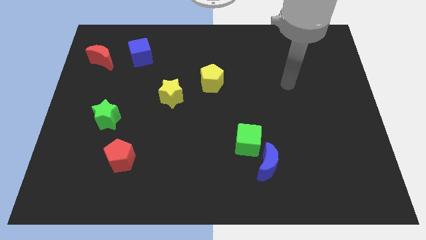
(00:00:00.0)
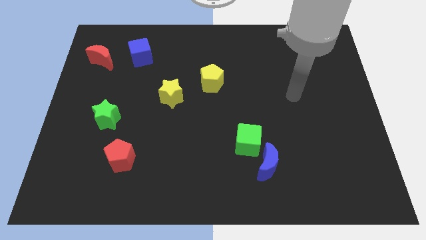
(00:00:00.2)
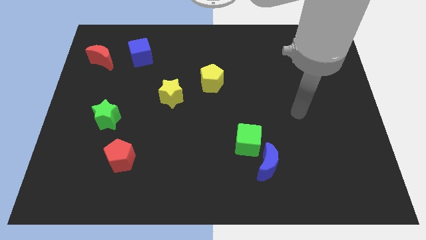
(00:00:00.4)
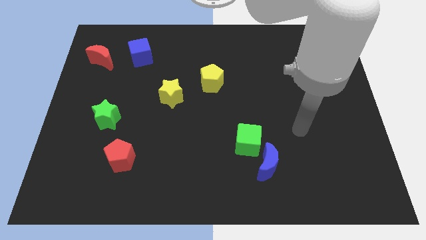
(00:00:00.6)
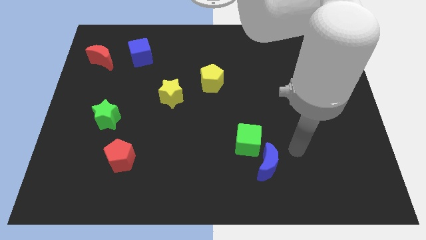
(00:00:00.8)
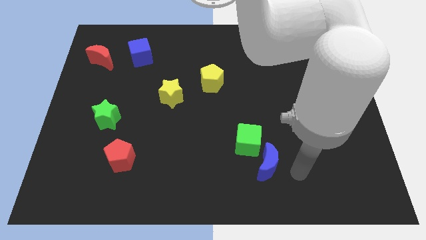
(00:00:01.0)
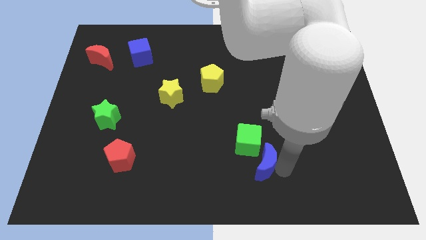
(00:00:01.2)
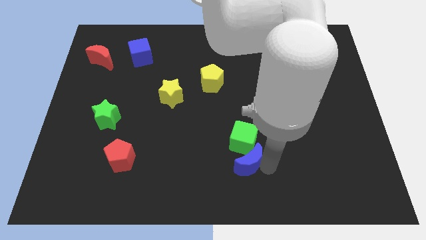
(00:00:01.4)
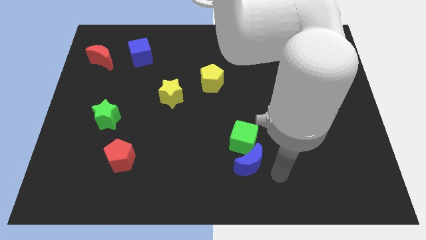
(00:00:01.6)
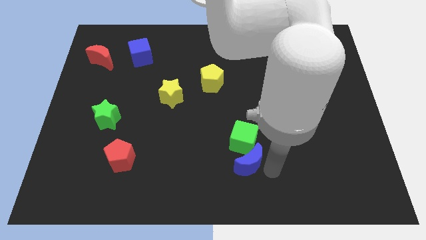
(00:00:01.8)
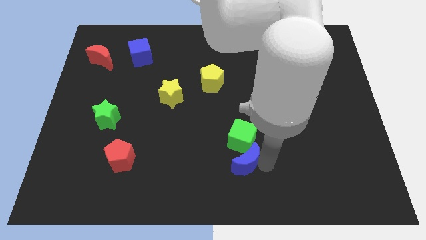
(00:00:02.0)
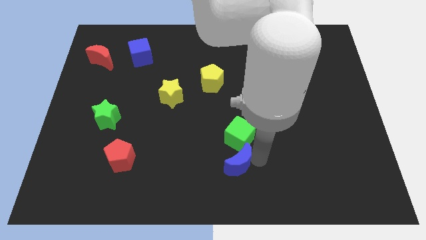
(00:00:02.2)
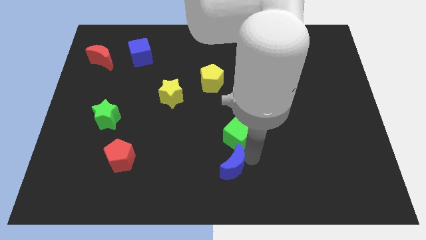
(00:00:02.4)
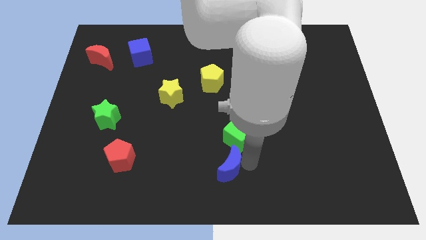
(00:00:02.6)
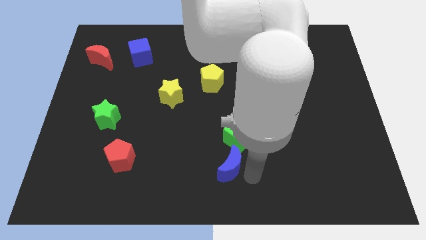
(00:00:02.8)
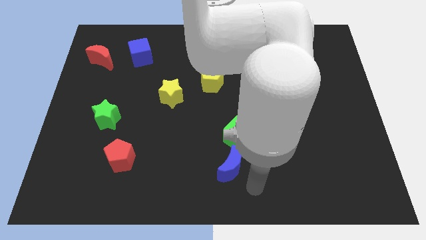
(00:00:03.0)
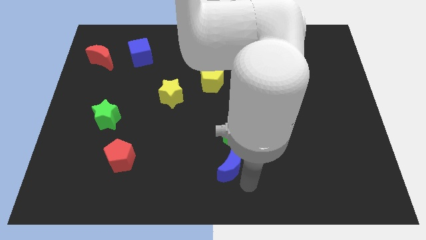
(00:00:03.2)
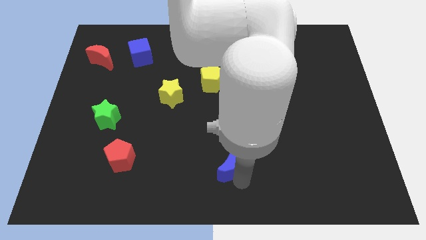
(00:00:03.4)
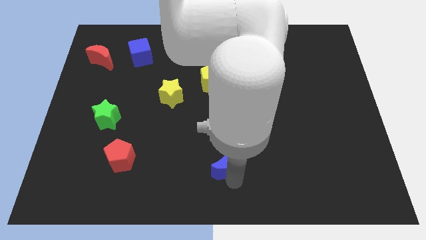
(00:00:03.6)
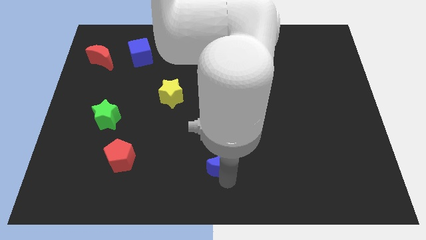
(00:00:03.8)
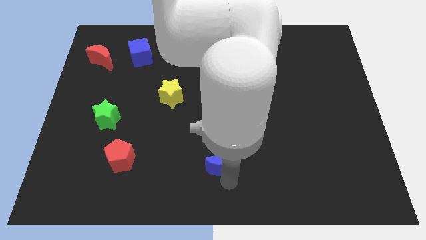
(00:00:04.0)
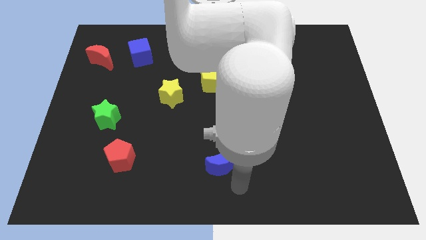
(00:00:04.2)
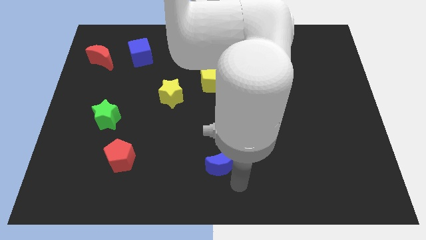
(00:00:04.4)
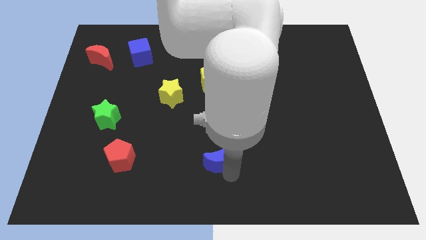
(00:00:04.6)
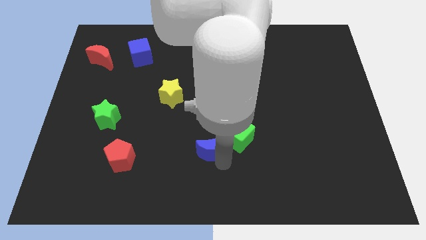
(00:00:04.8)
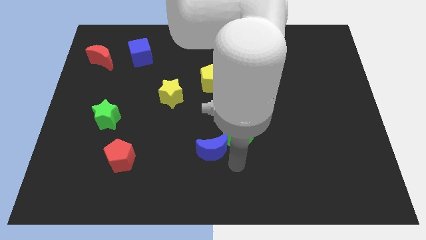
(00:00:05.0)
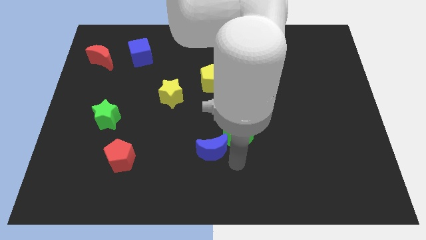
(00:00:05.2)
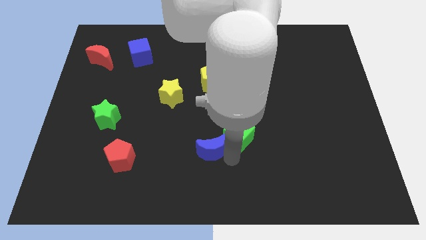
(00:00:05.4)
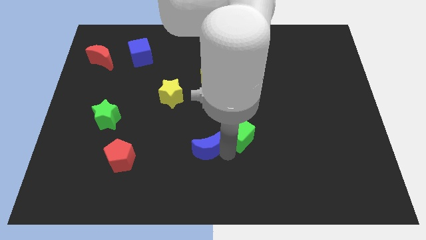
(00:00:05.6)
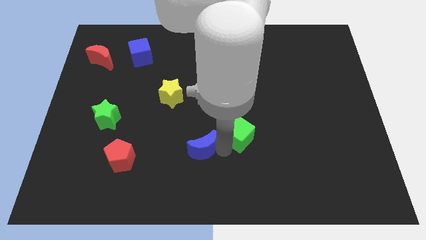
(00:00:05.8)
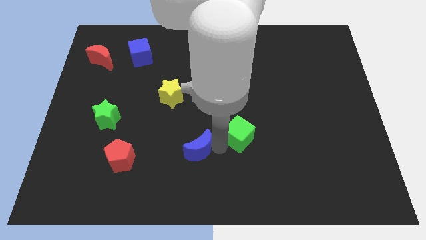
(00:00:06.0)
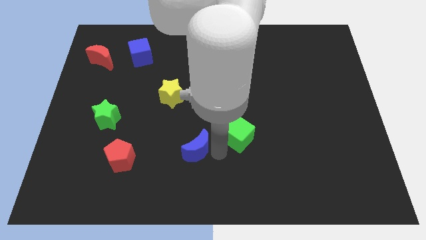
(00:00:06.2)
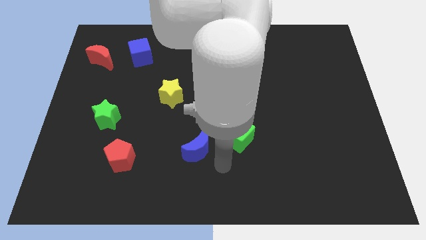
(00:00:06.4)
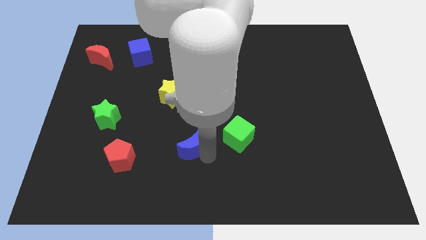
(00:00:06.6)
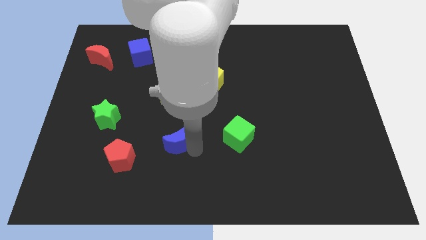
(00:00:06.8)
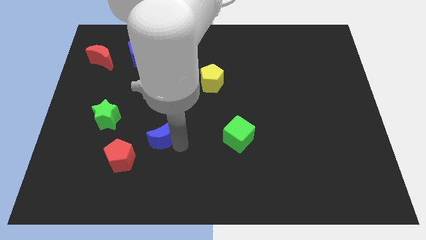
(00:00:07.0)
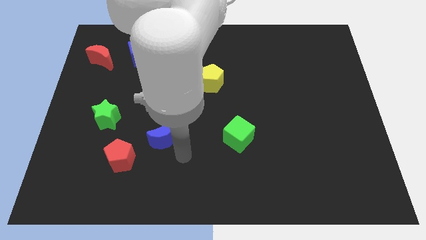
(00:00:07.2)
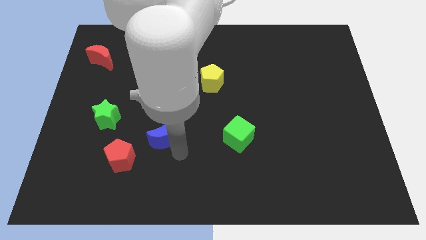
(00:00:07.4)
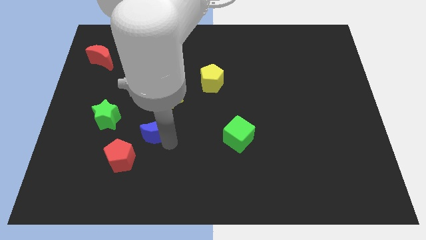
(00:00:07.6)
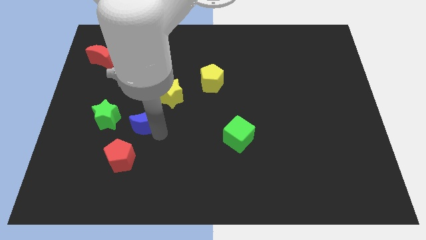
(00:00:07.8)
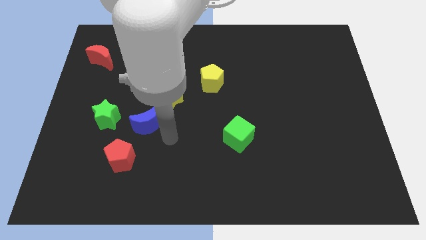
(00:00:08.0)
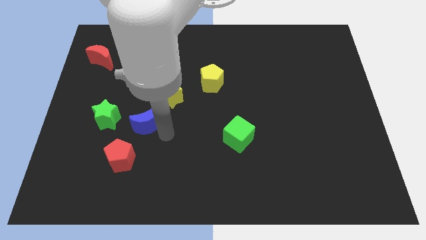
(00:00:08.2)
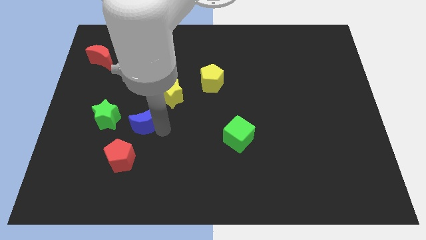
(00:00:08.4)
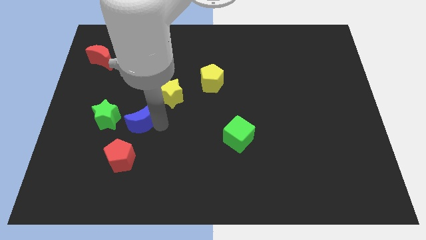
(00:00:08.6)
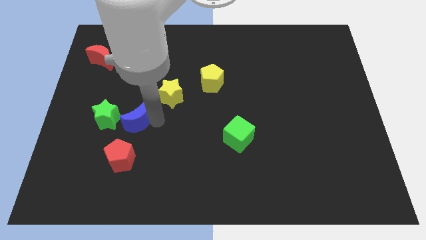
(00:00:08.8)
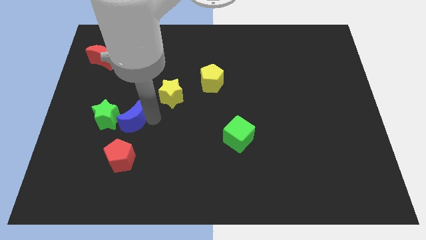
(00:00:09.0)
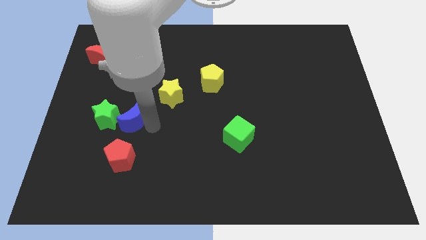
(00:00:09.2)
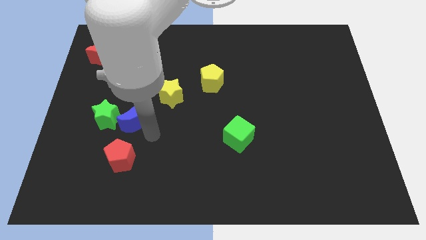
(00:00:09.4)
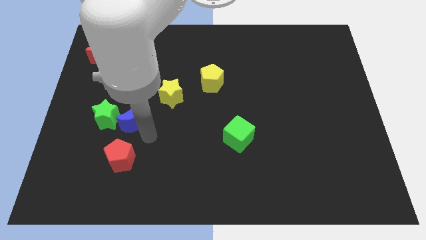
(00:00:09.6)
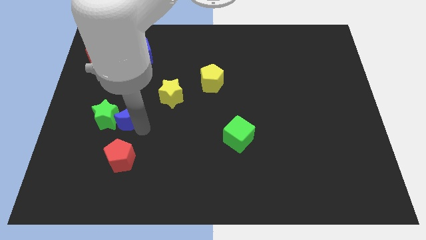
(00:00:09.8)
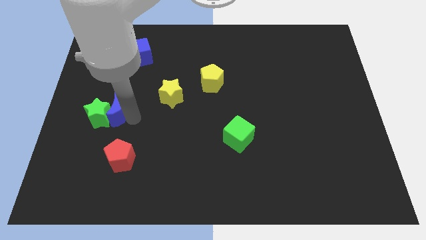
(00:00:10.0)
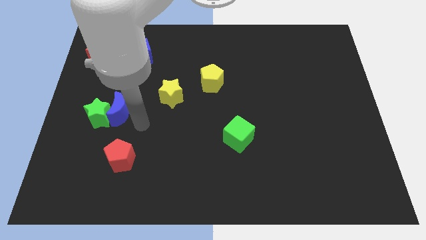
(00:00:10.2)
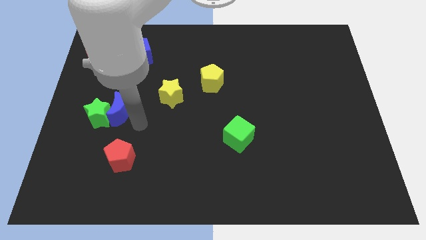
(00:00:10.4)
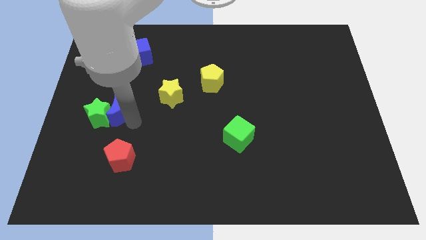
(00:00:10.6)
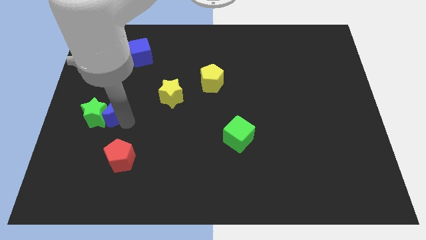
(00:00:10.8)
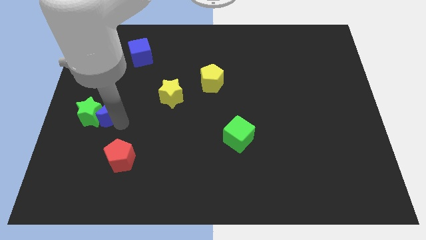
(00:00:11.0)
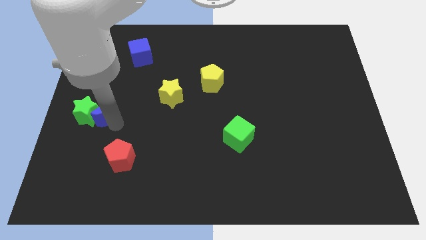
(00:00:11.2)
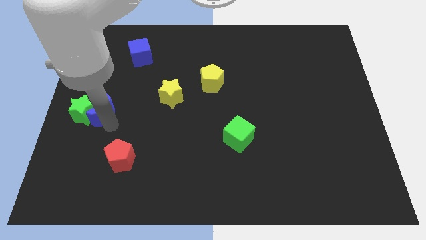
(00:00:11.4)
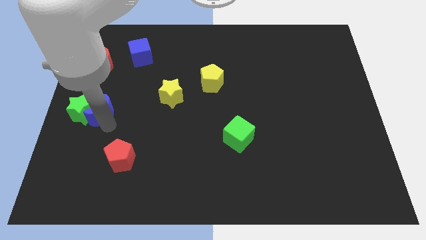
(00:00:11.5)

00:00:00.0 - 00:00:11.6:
slide the blue moon to the left side

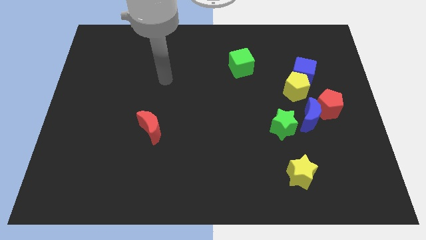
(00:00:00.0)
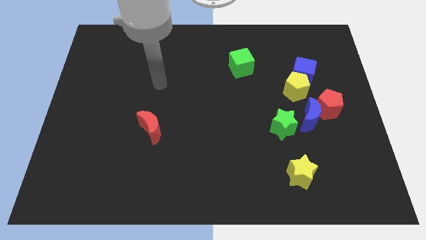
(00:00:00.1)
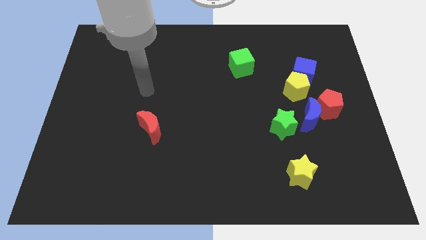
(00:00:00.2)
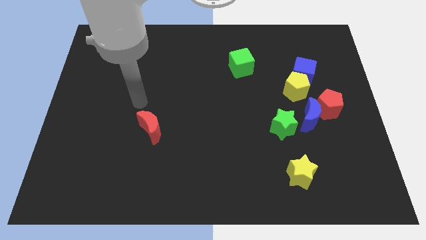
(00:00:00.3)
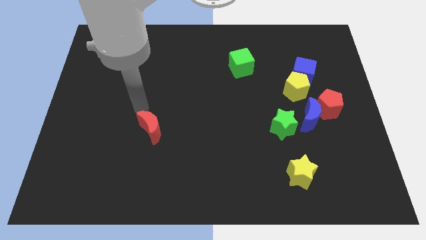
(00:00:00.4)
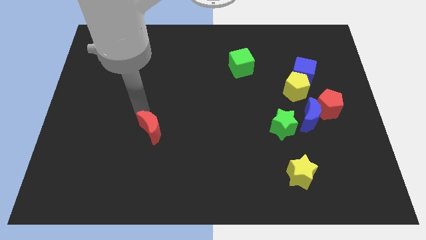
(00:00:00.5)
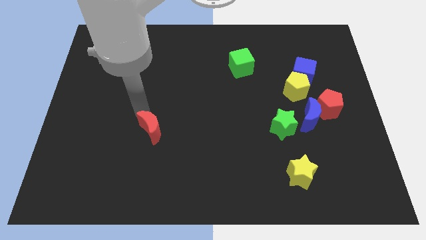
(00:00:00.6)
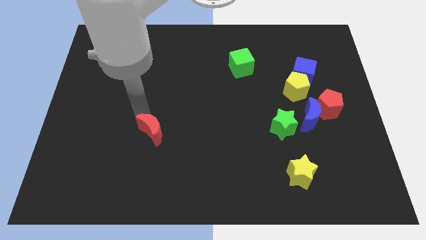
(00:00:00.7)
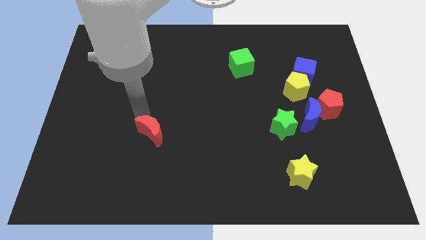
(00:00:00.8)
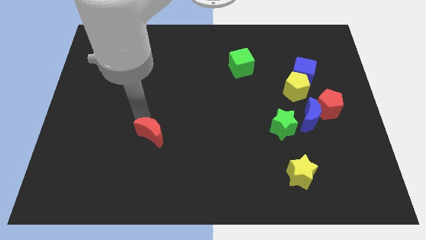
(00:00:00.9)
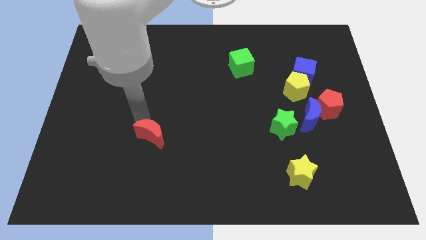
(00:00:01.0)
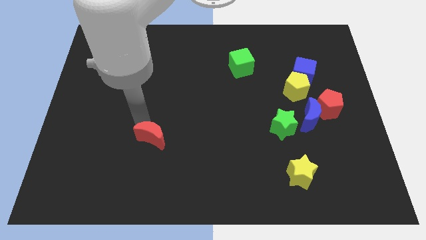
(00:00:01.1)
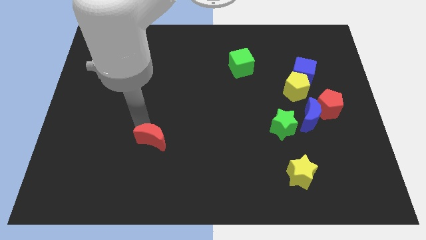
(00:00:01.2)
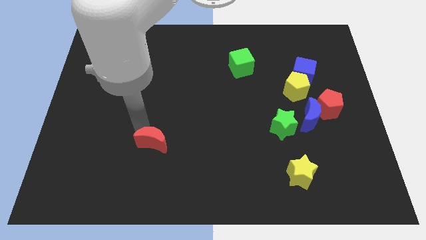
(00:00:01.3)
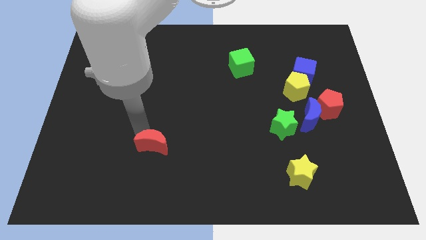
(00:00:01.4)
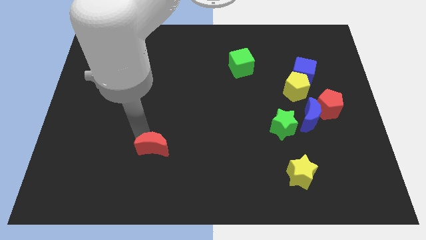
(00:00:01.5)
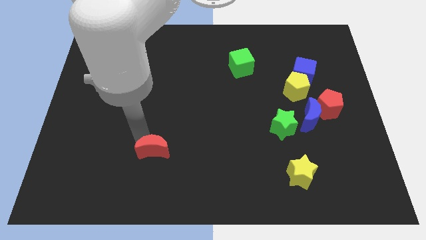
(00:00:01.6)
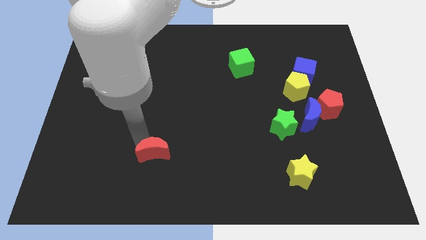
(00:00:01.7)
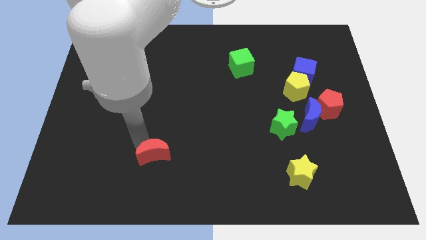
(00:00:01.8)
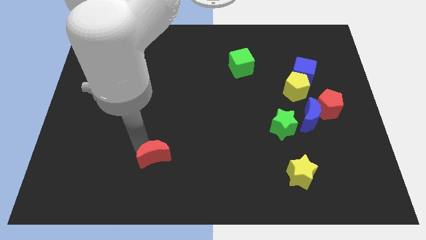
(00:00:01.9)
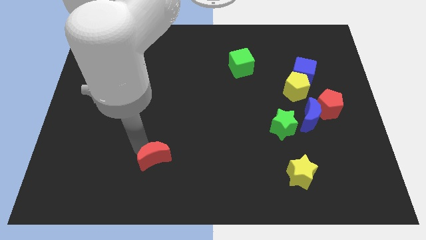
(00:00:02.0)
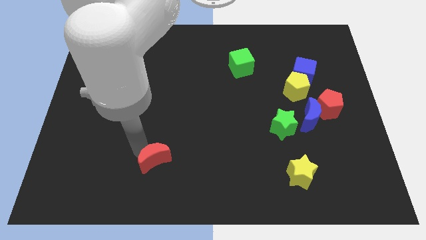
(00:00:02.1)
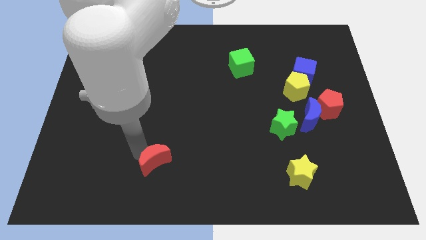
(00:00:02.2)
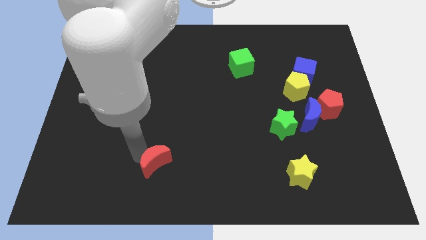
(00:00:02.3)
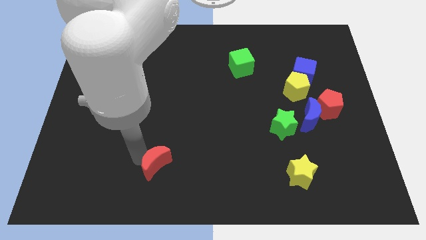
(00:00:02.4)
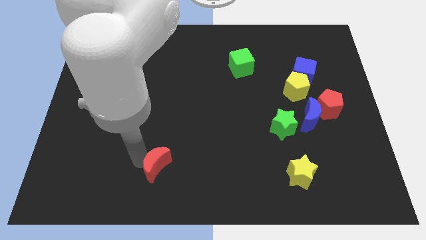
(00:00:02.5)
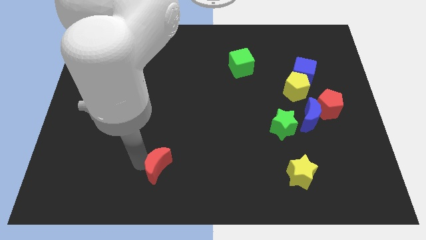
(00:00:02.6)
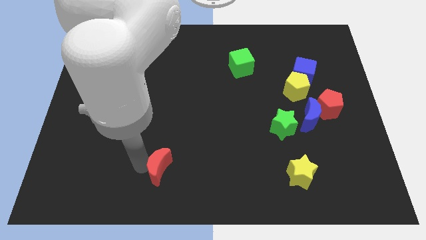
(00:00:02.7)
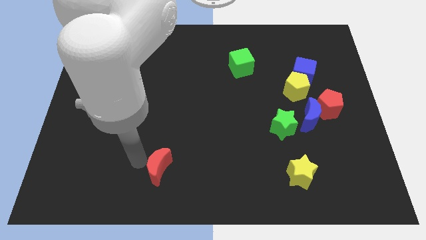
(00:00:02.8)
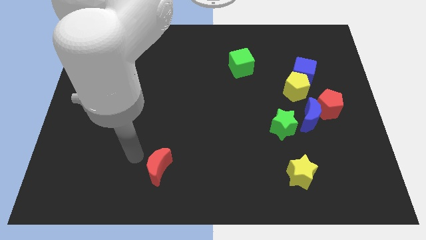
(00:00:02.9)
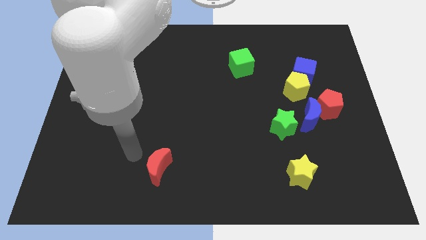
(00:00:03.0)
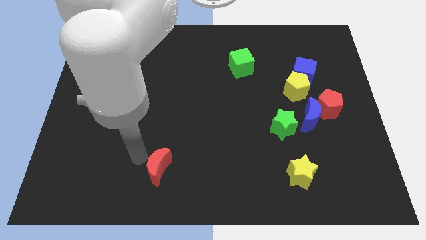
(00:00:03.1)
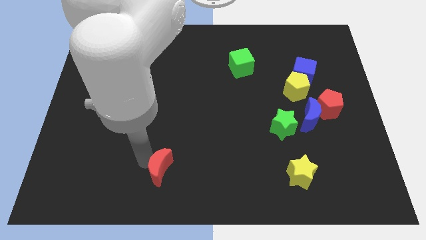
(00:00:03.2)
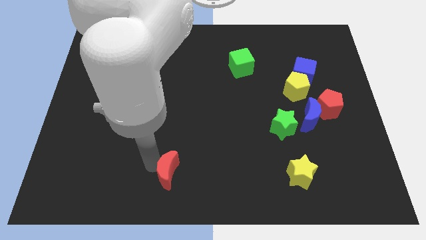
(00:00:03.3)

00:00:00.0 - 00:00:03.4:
push the red moon to the bottom side
